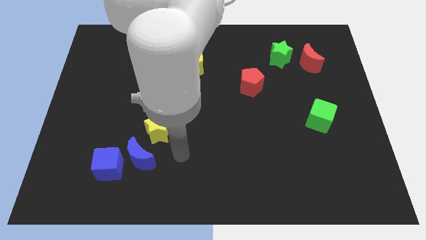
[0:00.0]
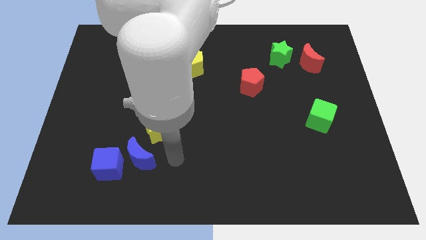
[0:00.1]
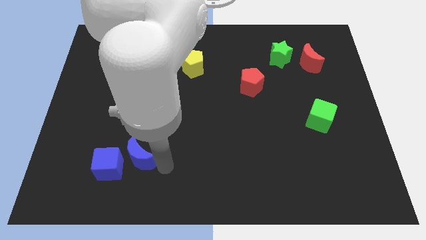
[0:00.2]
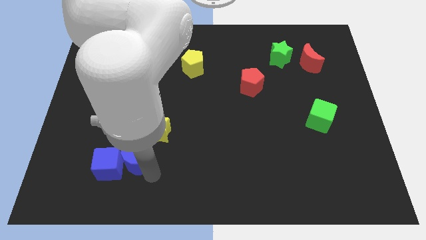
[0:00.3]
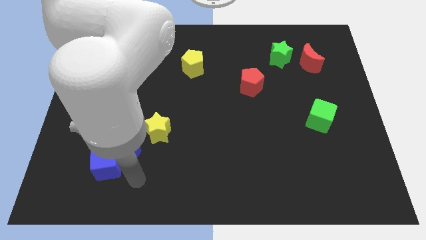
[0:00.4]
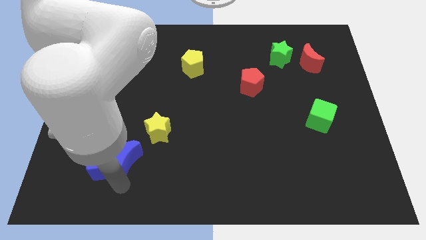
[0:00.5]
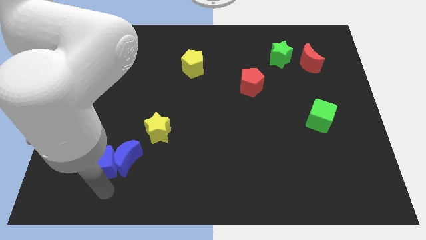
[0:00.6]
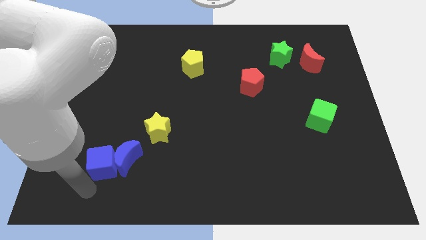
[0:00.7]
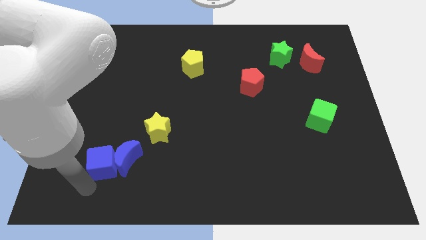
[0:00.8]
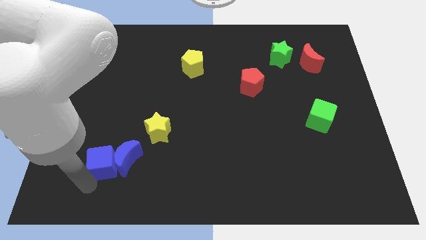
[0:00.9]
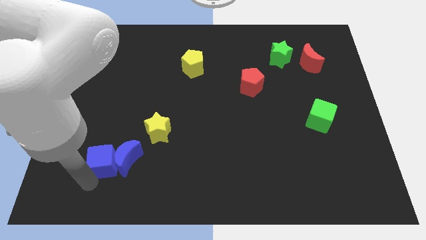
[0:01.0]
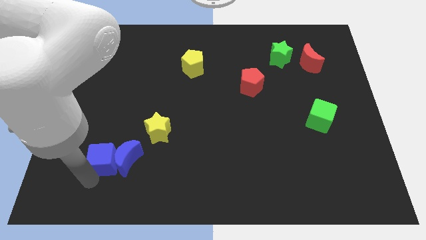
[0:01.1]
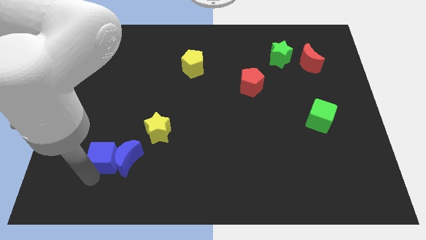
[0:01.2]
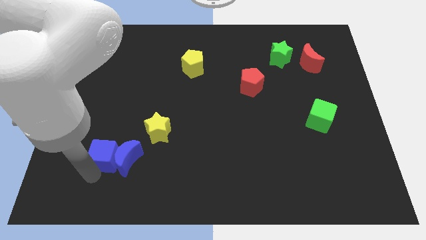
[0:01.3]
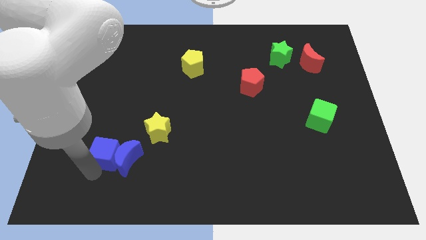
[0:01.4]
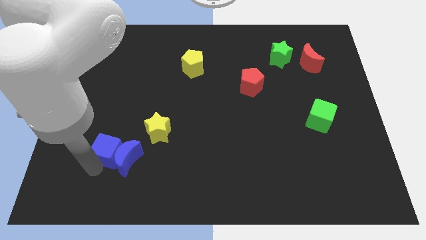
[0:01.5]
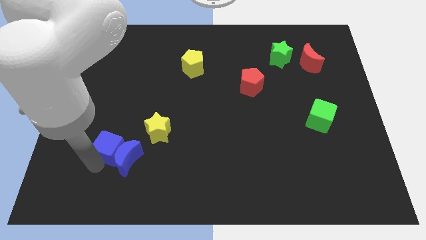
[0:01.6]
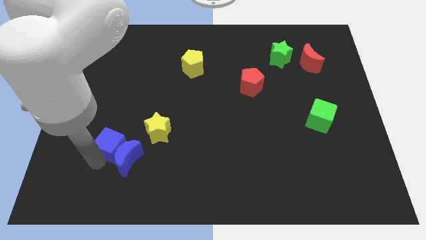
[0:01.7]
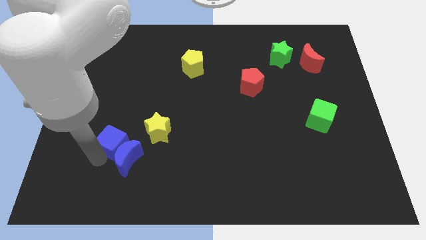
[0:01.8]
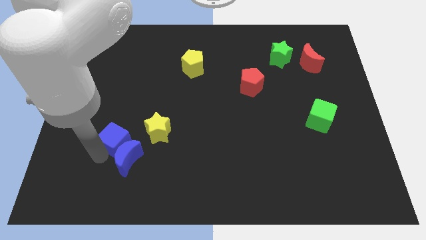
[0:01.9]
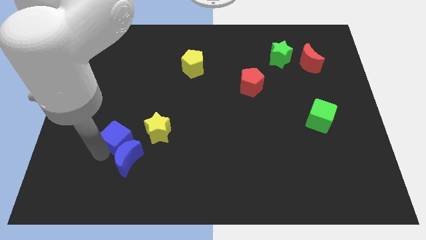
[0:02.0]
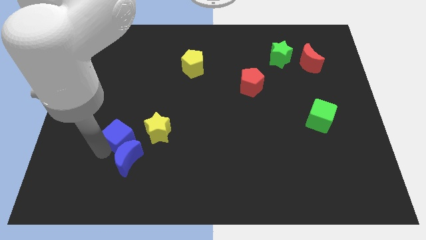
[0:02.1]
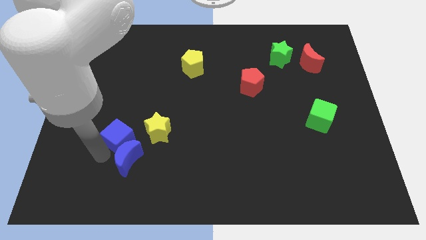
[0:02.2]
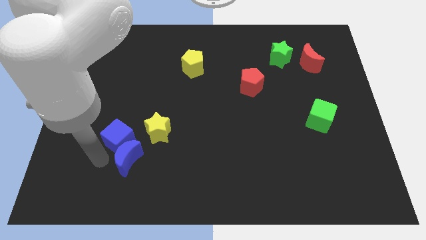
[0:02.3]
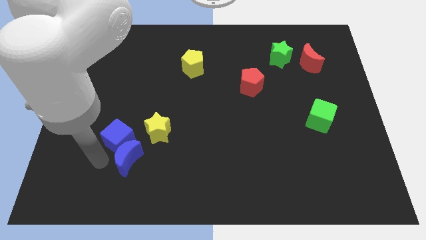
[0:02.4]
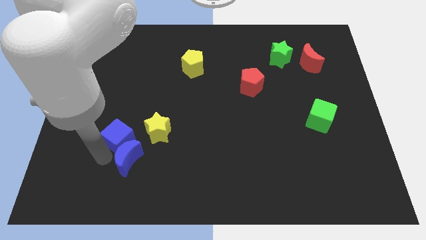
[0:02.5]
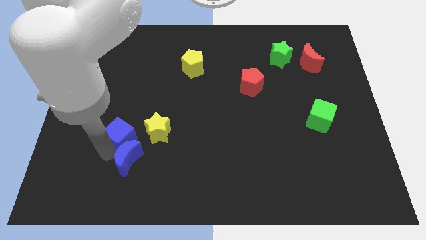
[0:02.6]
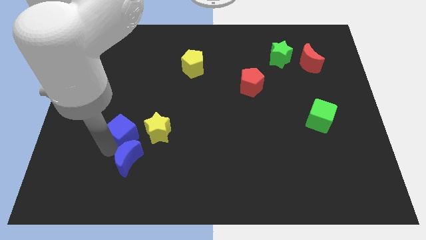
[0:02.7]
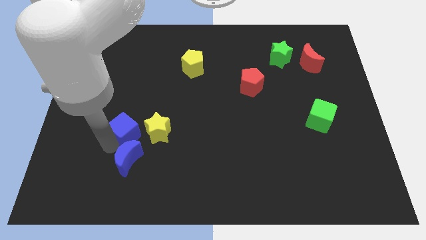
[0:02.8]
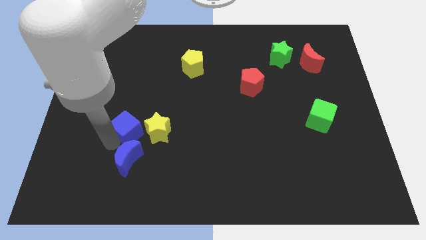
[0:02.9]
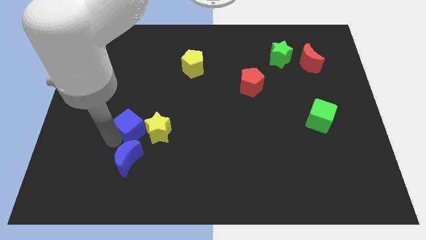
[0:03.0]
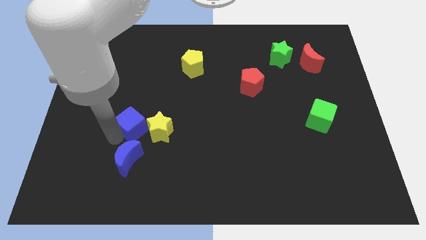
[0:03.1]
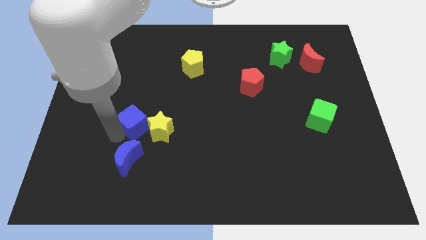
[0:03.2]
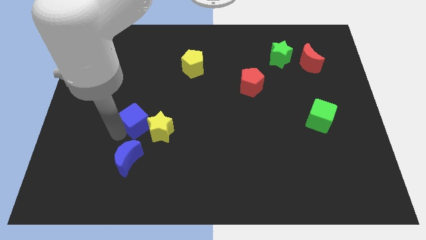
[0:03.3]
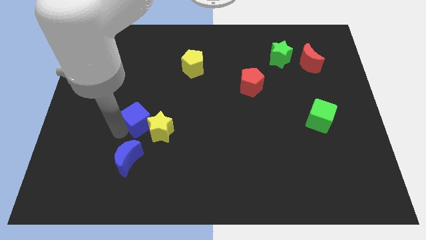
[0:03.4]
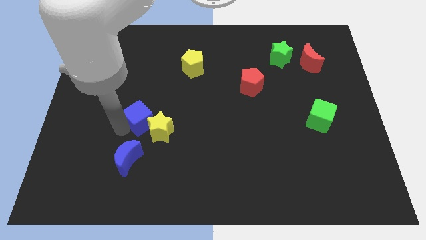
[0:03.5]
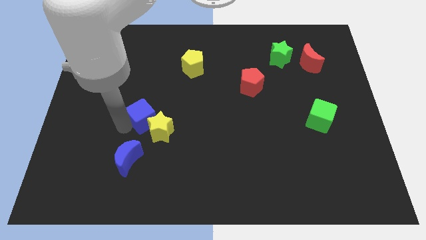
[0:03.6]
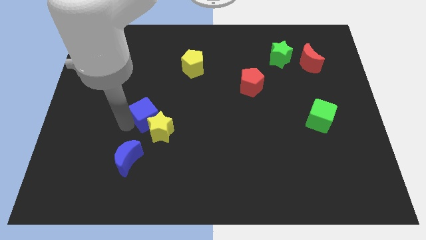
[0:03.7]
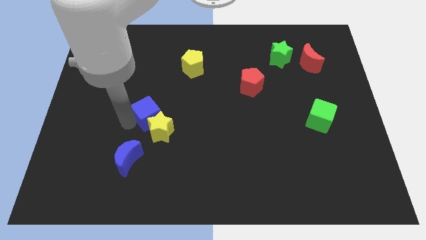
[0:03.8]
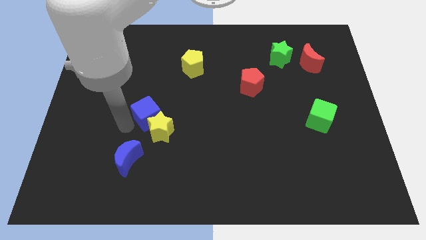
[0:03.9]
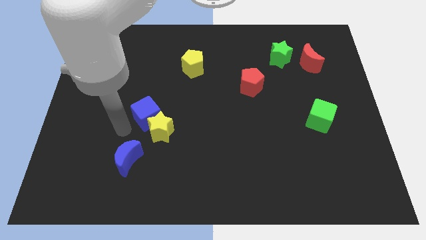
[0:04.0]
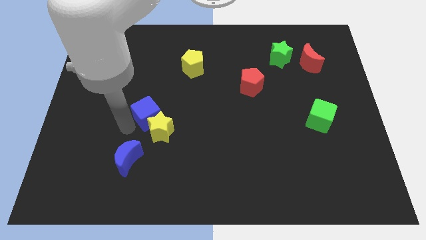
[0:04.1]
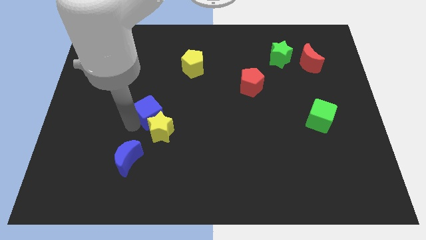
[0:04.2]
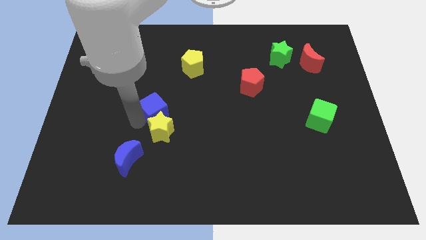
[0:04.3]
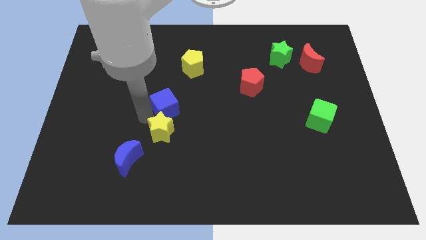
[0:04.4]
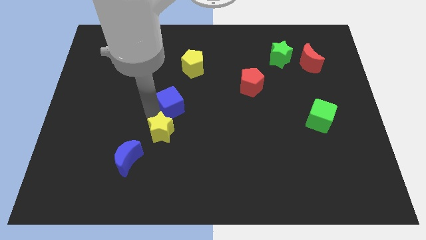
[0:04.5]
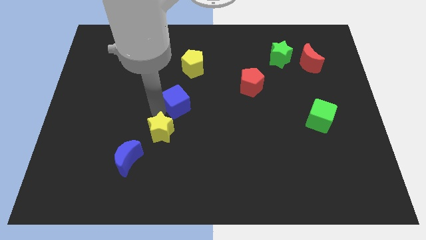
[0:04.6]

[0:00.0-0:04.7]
move the blue cube up and then to the right

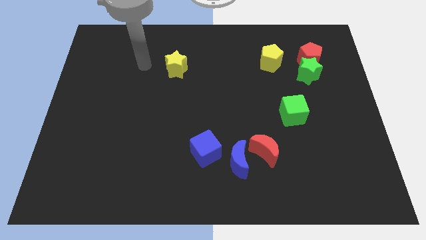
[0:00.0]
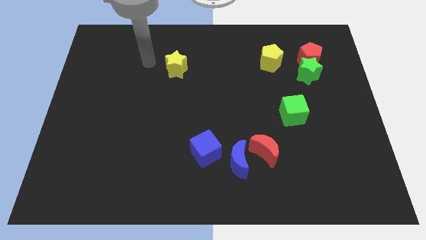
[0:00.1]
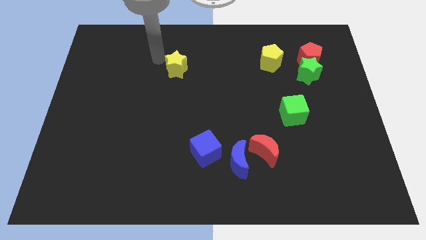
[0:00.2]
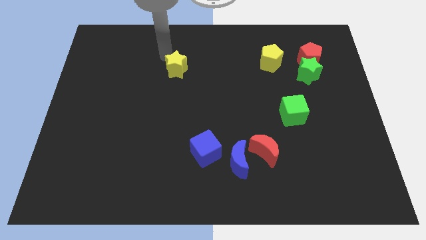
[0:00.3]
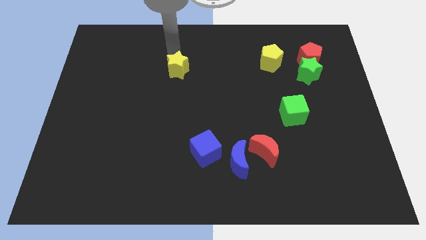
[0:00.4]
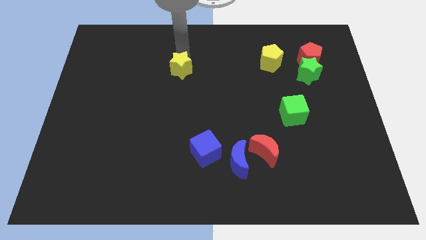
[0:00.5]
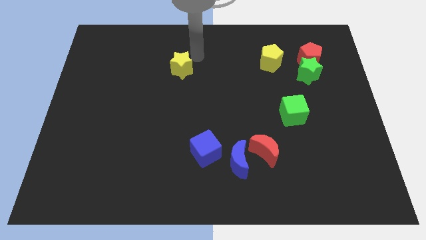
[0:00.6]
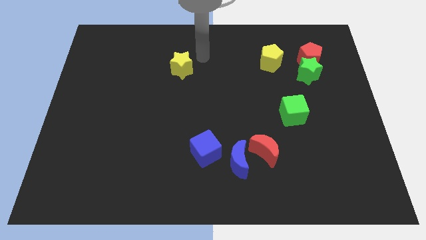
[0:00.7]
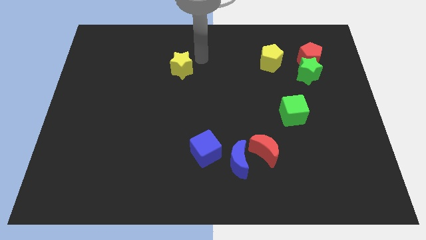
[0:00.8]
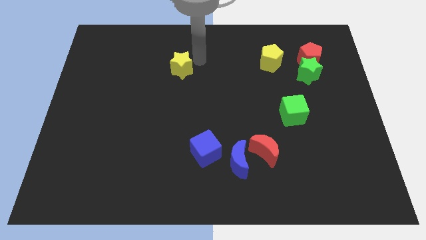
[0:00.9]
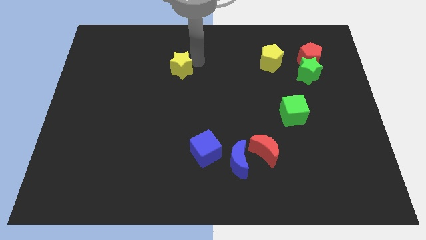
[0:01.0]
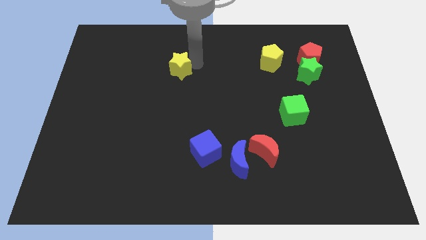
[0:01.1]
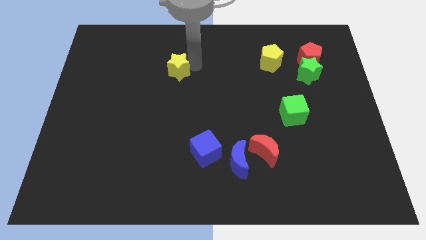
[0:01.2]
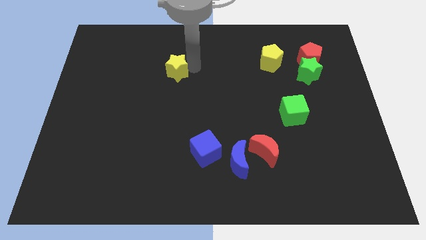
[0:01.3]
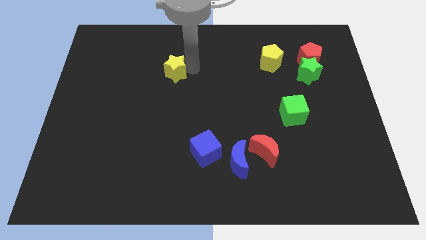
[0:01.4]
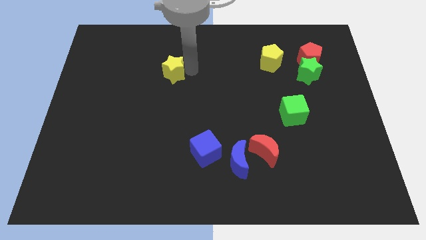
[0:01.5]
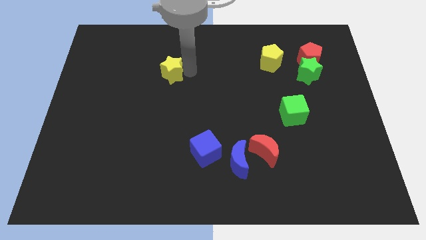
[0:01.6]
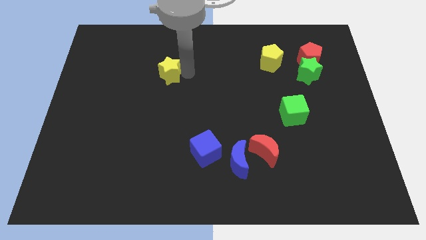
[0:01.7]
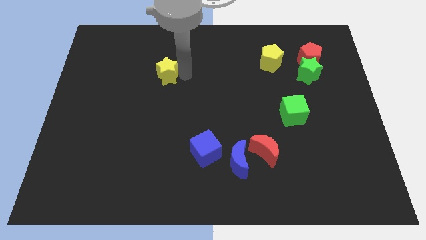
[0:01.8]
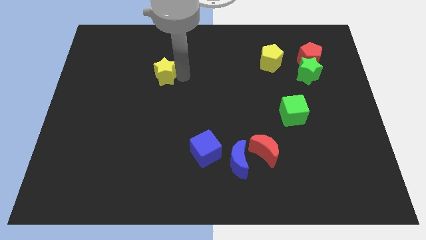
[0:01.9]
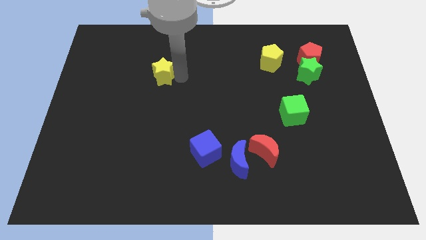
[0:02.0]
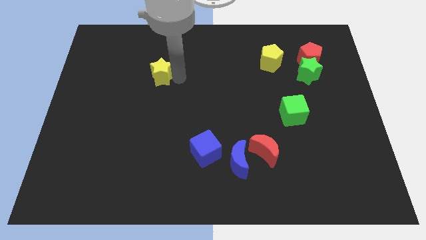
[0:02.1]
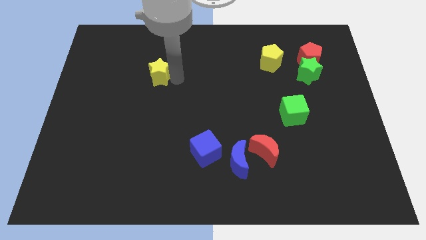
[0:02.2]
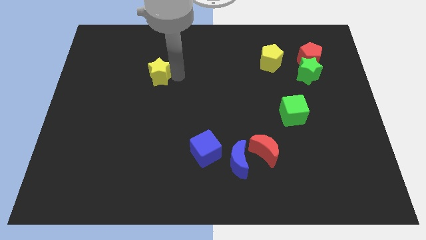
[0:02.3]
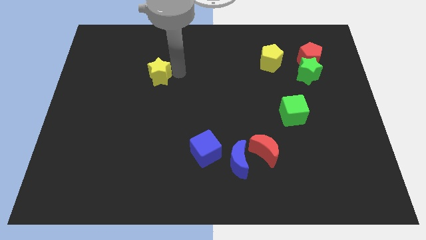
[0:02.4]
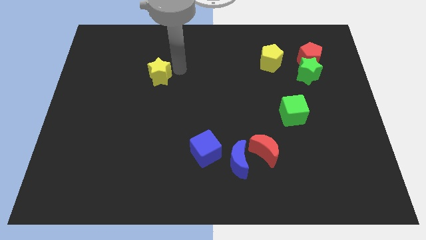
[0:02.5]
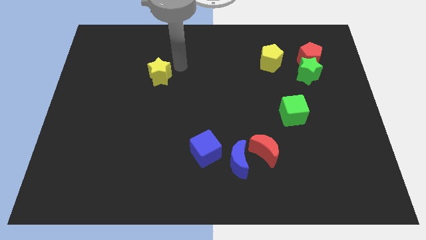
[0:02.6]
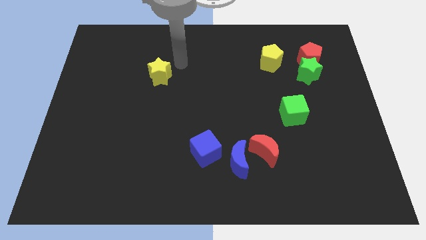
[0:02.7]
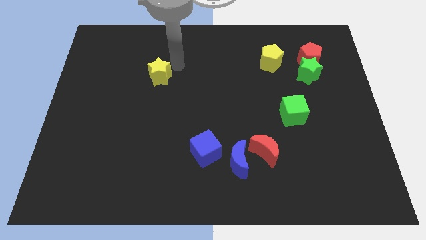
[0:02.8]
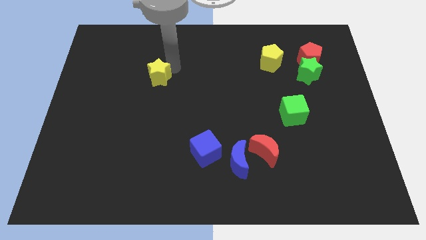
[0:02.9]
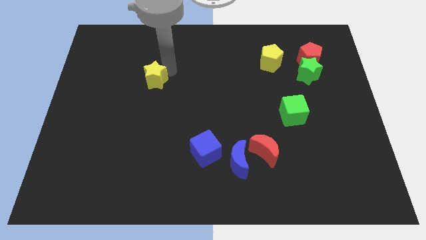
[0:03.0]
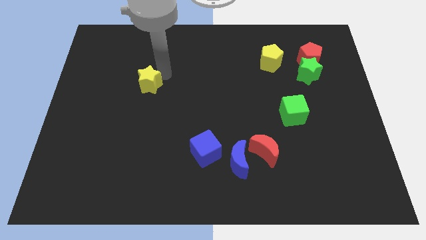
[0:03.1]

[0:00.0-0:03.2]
move the yellow star diagonally down and to the left somewhat
